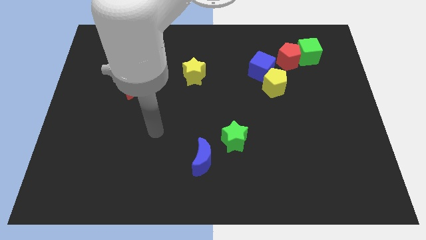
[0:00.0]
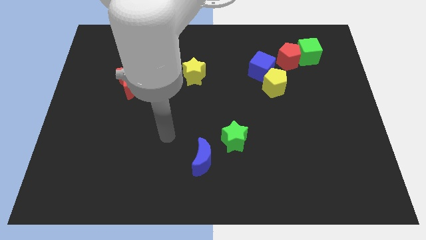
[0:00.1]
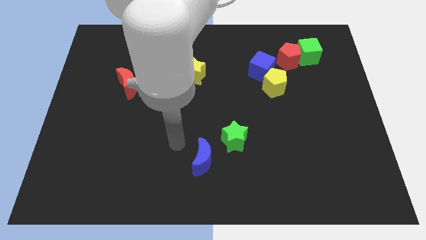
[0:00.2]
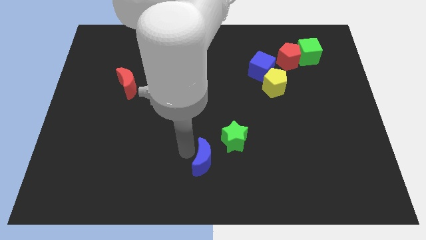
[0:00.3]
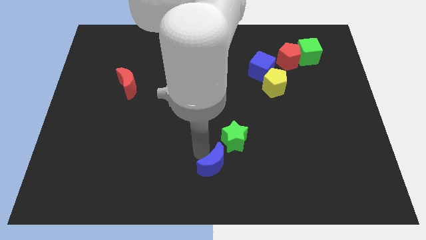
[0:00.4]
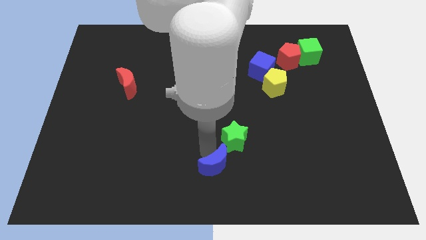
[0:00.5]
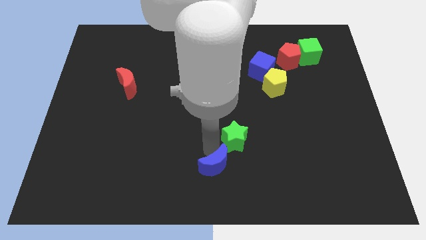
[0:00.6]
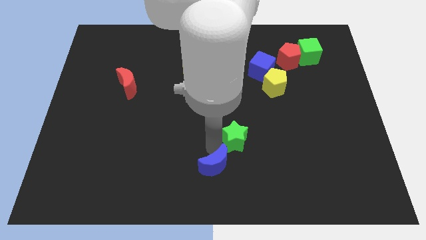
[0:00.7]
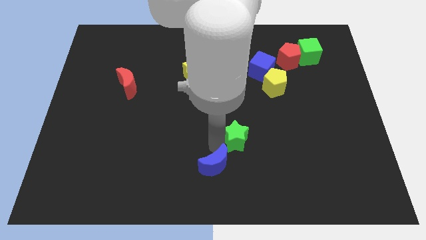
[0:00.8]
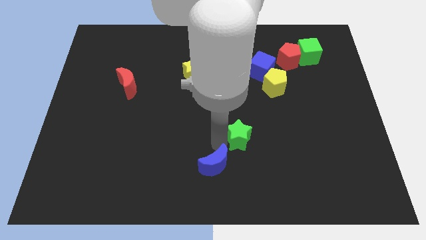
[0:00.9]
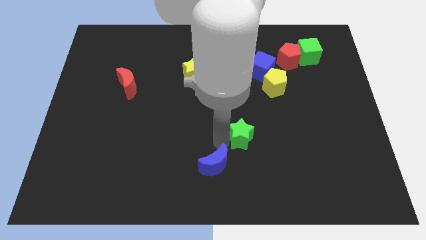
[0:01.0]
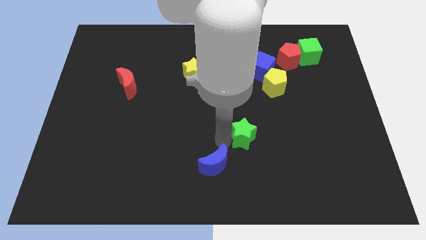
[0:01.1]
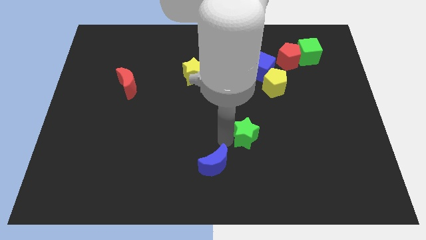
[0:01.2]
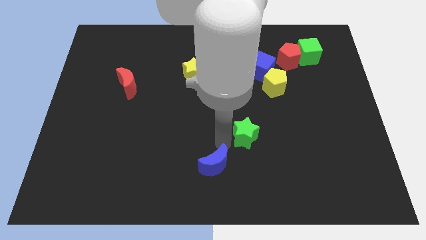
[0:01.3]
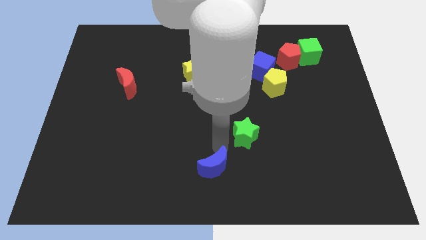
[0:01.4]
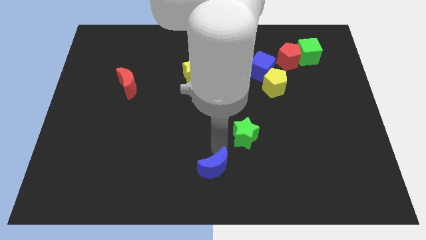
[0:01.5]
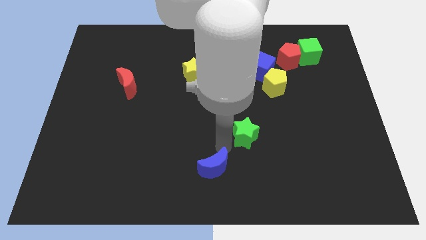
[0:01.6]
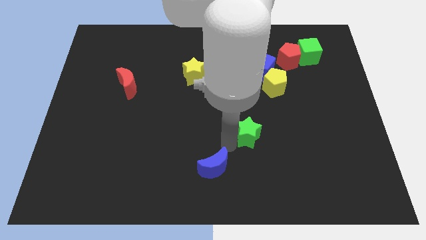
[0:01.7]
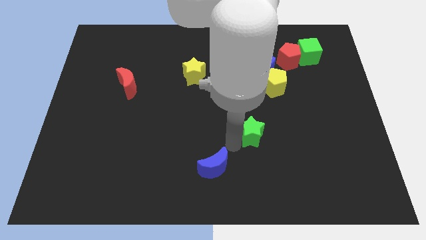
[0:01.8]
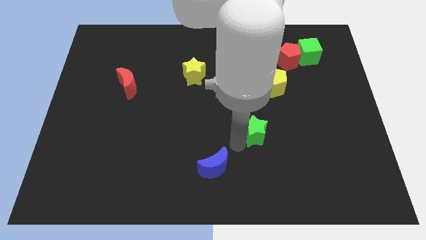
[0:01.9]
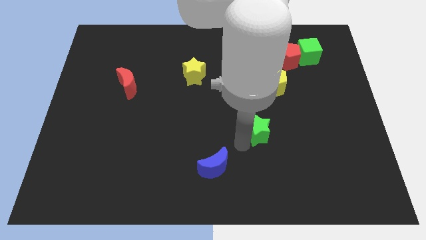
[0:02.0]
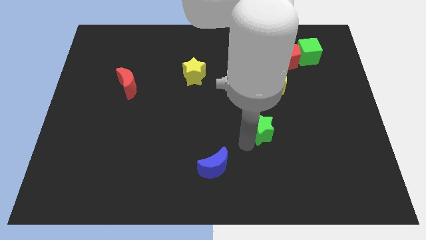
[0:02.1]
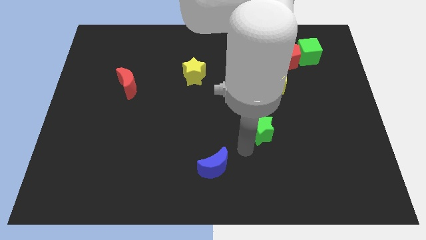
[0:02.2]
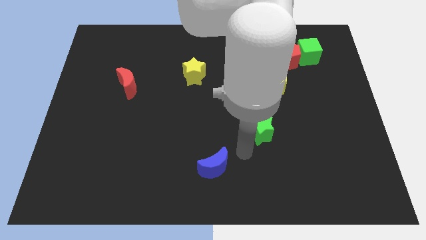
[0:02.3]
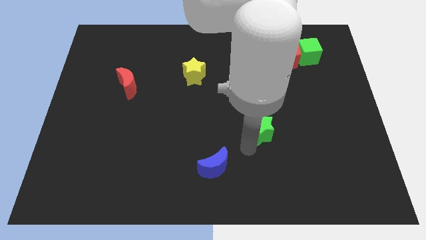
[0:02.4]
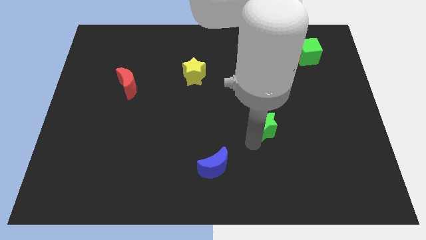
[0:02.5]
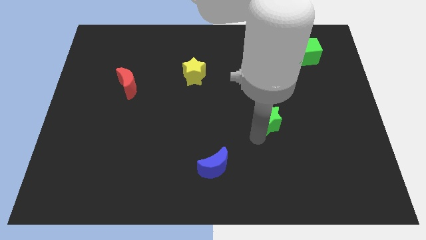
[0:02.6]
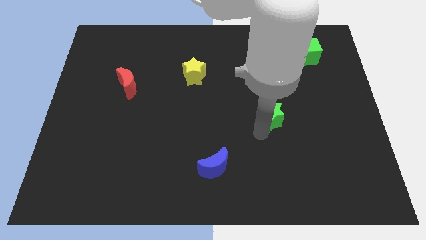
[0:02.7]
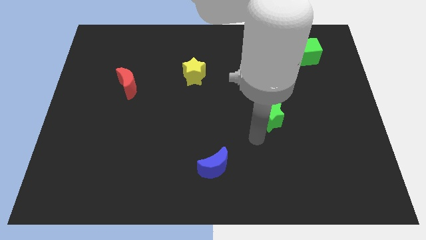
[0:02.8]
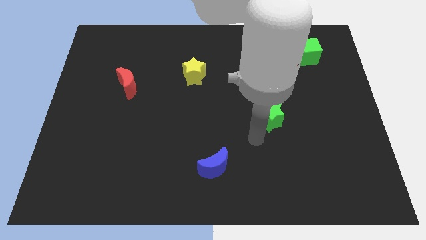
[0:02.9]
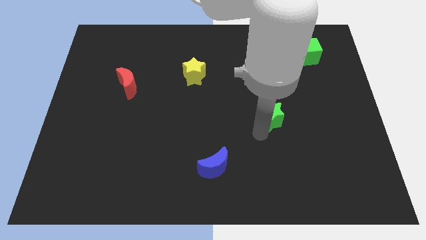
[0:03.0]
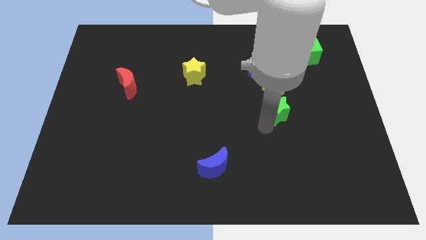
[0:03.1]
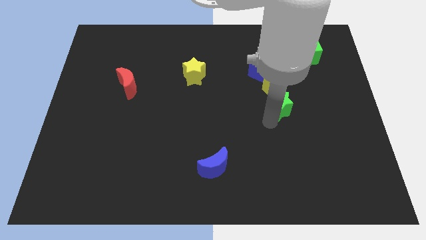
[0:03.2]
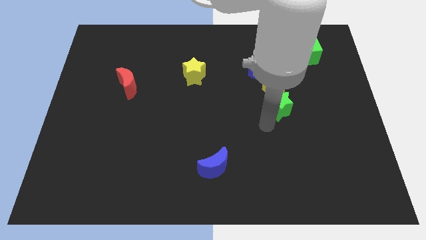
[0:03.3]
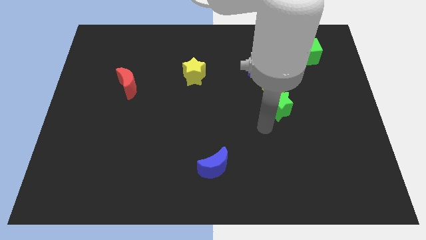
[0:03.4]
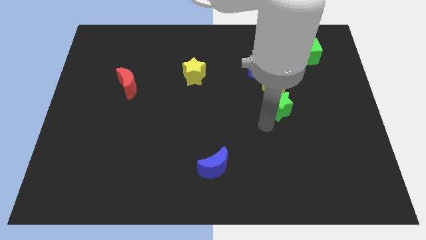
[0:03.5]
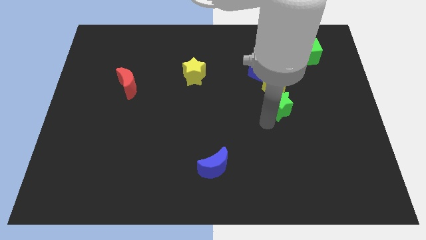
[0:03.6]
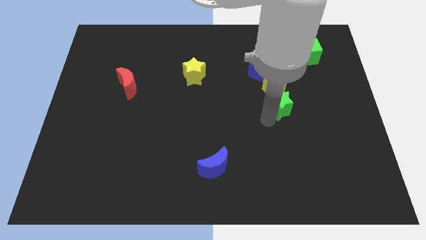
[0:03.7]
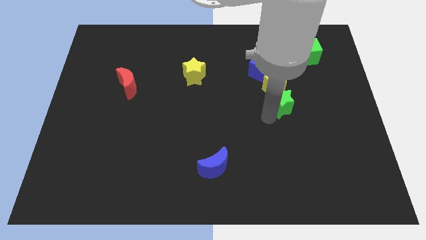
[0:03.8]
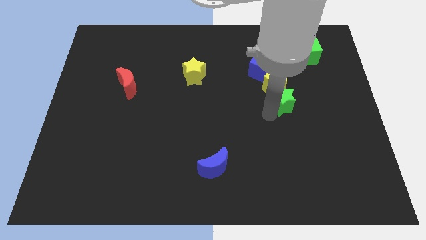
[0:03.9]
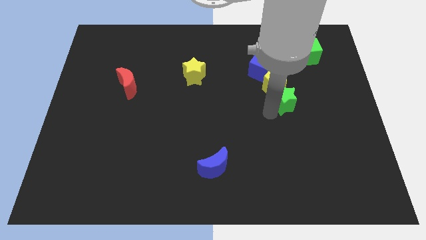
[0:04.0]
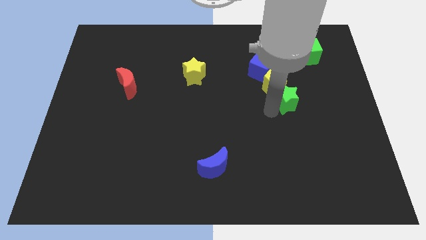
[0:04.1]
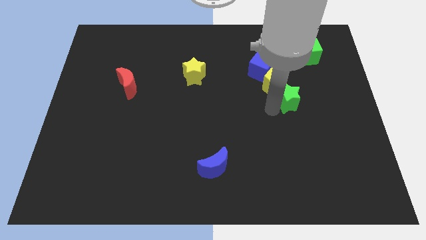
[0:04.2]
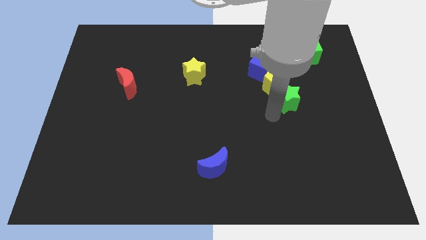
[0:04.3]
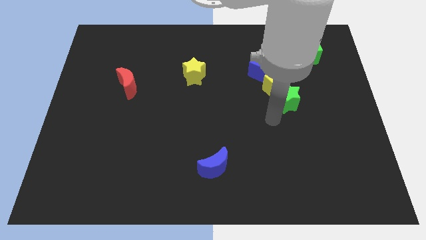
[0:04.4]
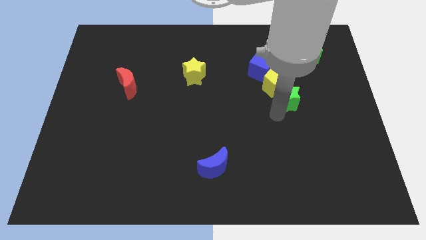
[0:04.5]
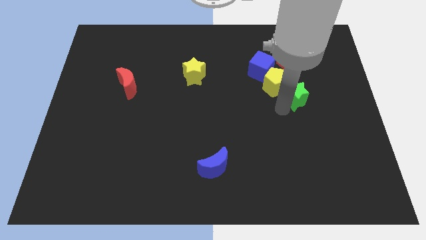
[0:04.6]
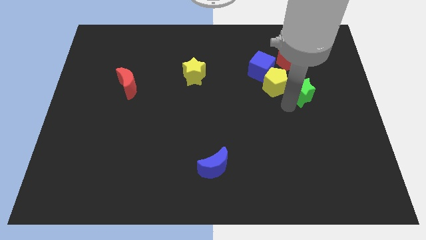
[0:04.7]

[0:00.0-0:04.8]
slide the green star up and to the right diagonally

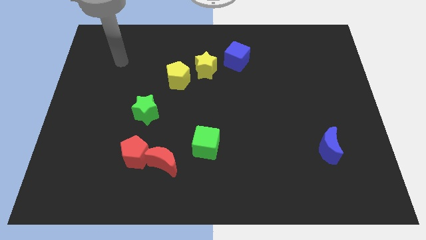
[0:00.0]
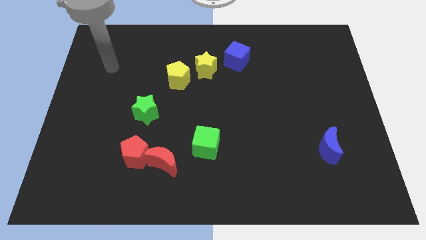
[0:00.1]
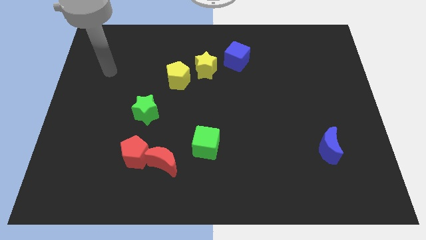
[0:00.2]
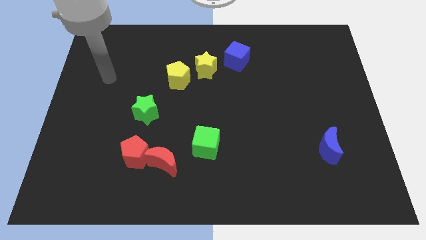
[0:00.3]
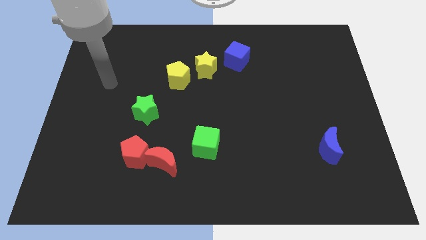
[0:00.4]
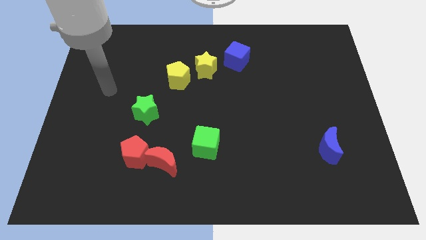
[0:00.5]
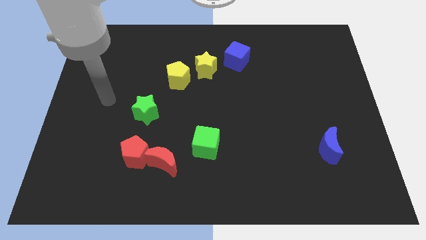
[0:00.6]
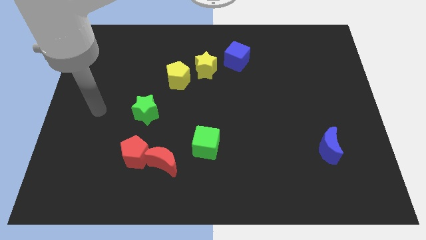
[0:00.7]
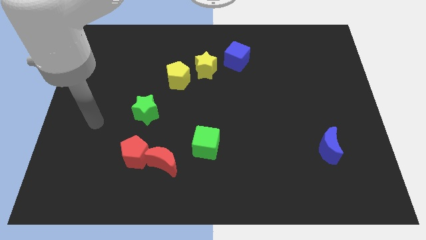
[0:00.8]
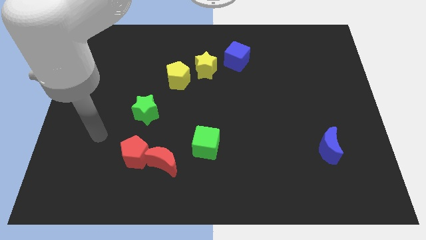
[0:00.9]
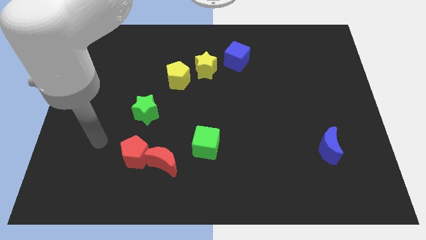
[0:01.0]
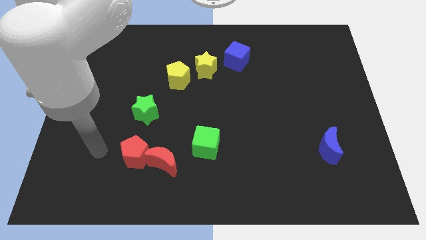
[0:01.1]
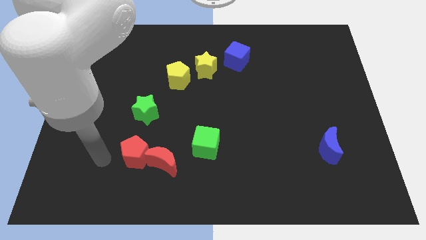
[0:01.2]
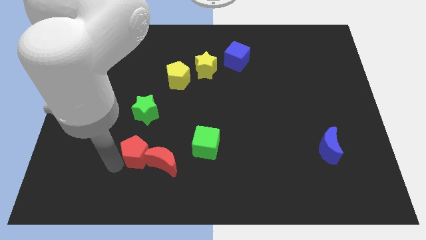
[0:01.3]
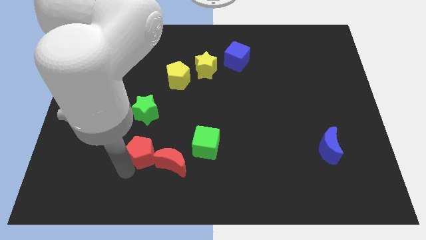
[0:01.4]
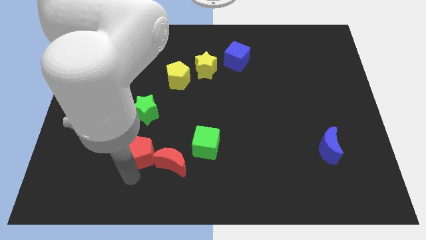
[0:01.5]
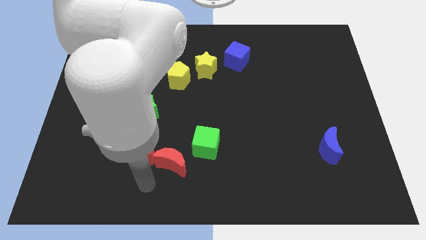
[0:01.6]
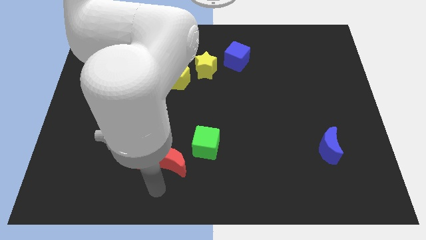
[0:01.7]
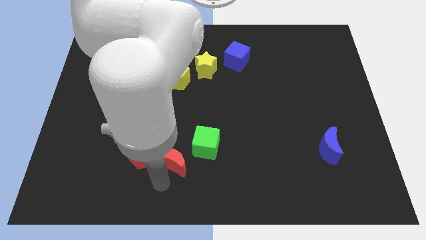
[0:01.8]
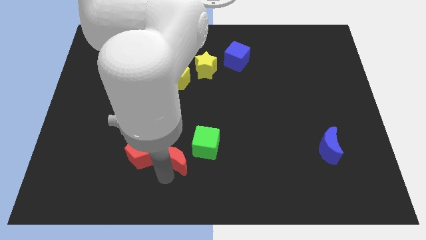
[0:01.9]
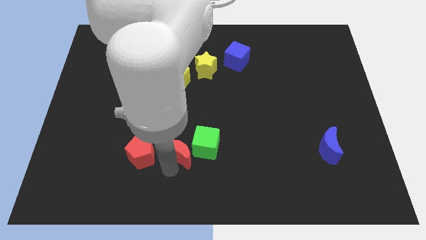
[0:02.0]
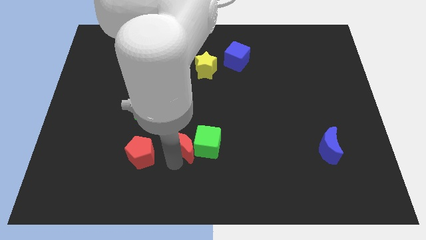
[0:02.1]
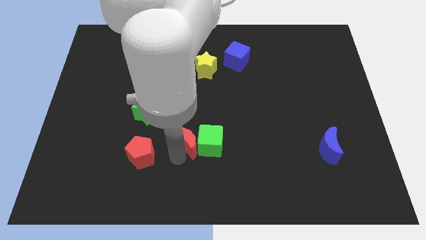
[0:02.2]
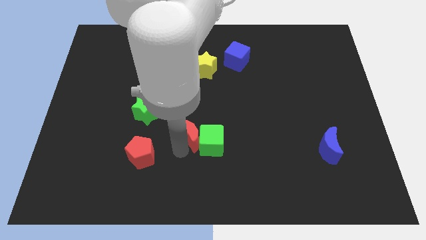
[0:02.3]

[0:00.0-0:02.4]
move the red moon upwards and then right a little

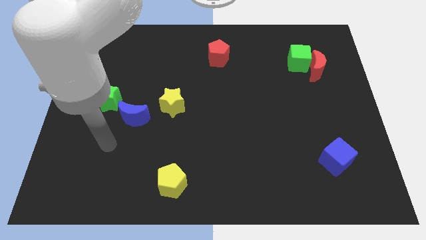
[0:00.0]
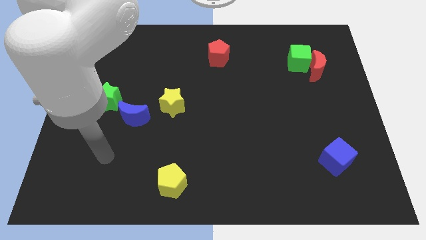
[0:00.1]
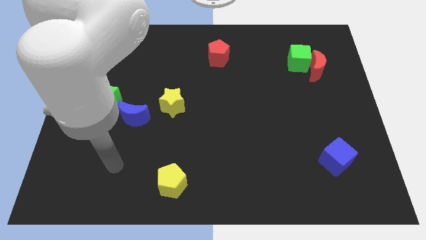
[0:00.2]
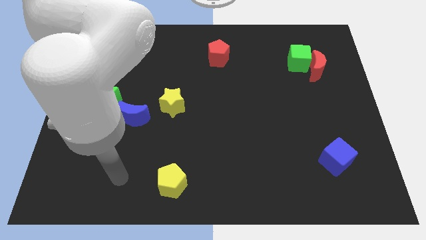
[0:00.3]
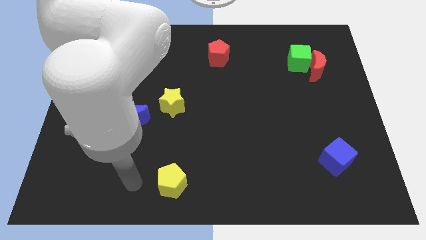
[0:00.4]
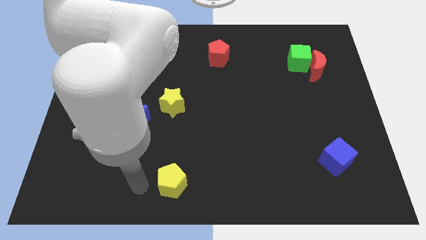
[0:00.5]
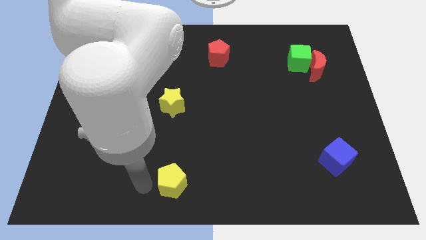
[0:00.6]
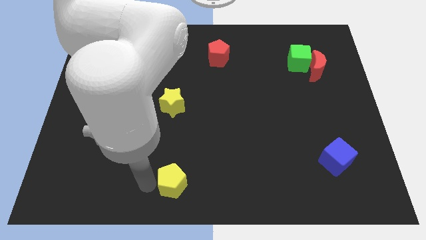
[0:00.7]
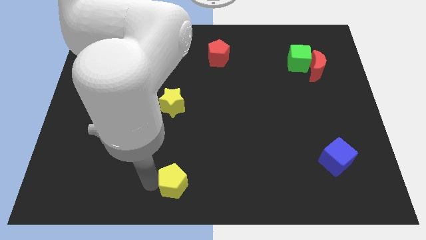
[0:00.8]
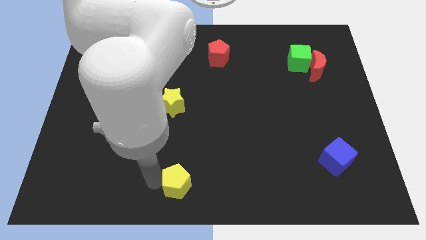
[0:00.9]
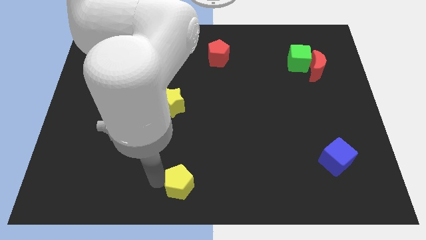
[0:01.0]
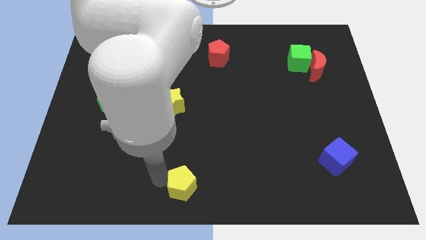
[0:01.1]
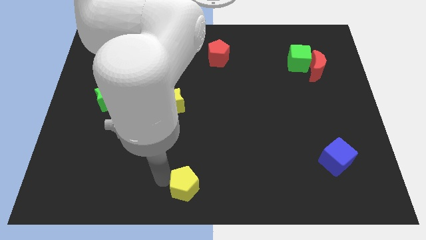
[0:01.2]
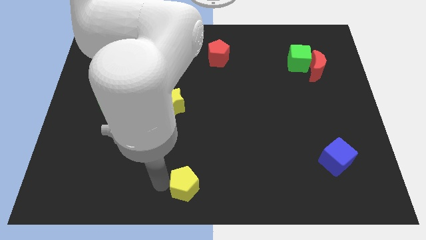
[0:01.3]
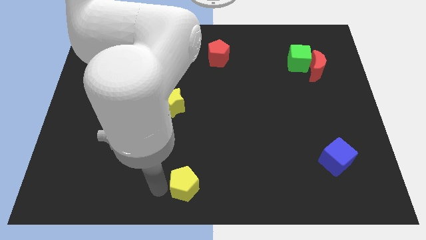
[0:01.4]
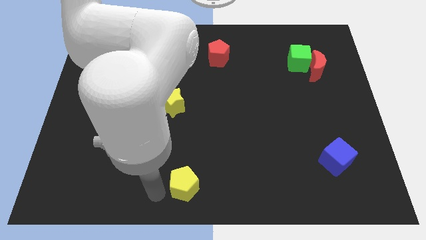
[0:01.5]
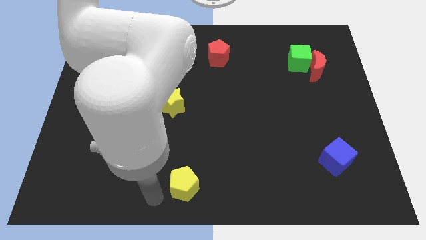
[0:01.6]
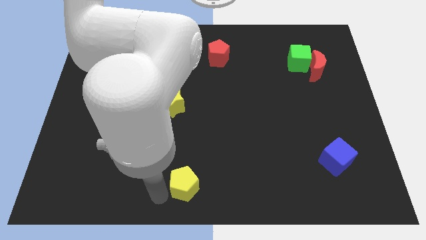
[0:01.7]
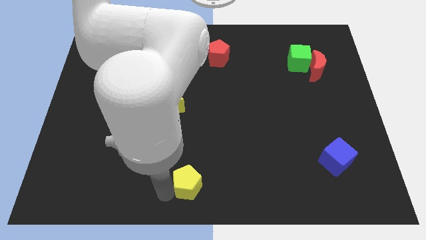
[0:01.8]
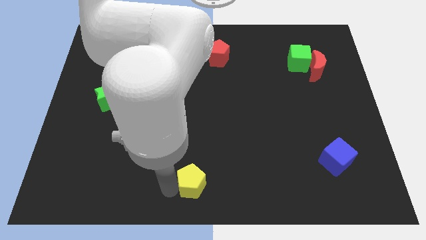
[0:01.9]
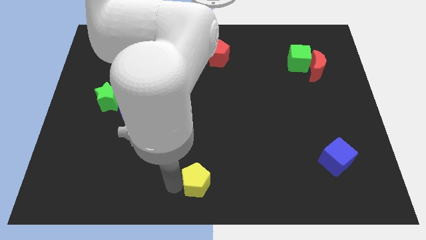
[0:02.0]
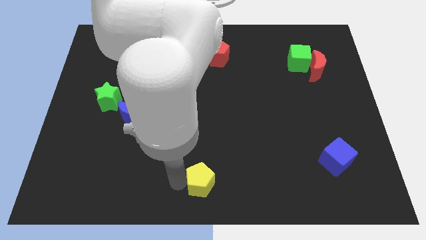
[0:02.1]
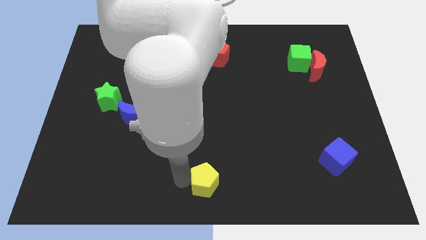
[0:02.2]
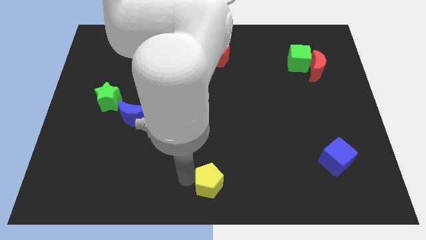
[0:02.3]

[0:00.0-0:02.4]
slide the yellow pentagon slightly to the right
